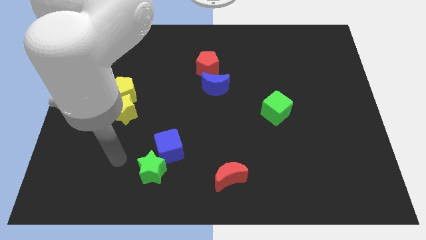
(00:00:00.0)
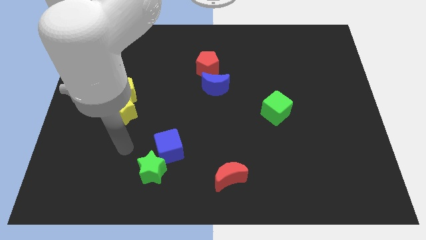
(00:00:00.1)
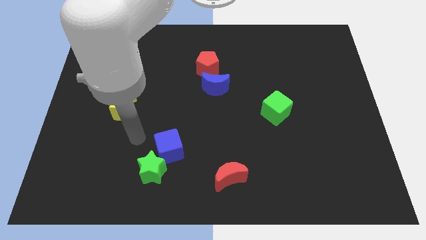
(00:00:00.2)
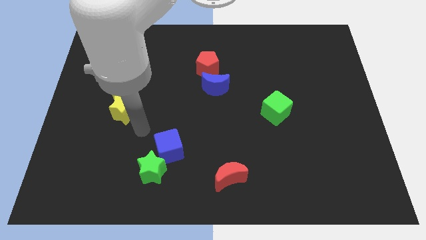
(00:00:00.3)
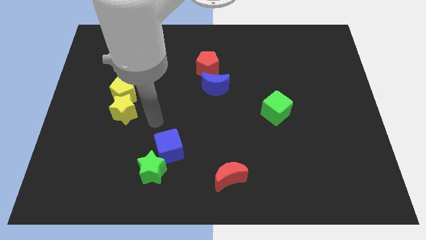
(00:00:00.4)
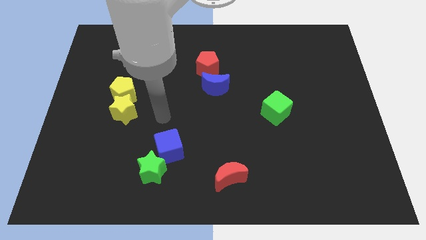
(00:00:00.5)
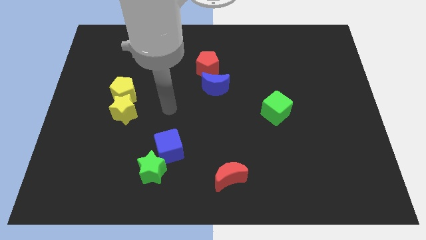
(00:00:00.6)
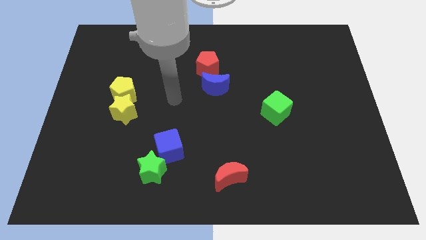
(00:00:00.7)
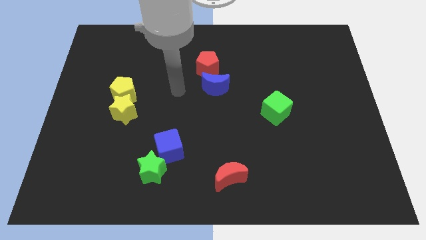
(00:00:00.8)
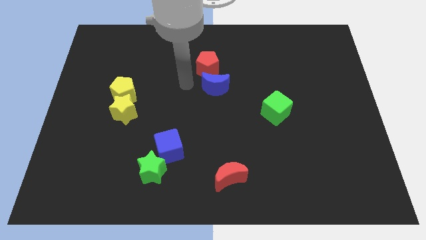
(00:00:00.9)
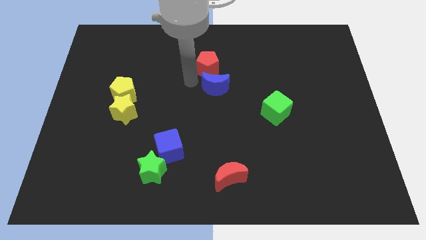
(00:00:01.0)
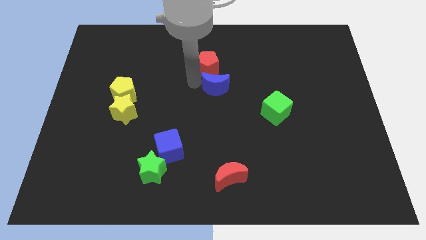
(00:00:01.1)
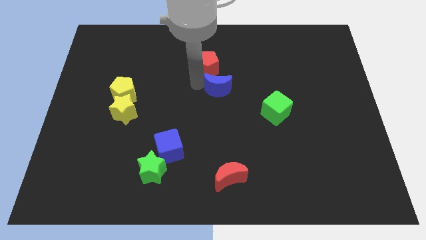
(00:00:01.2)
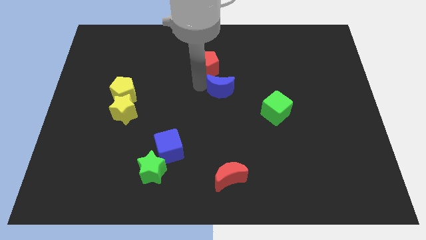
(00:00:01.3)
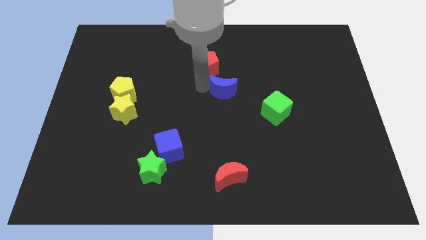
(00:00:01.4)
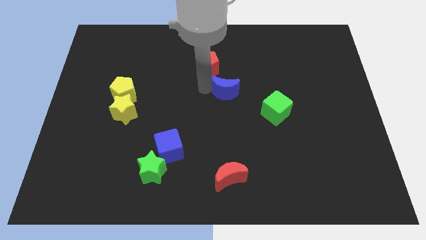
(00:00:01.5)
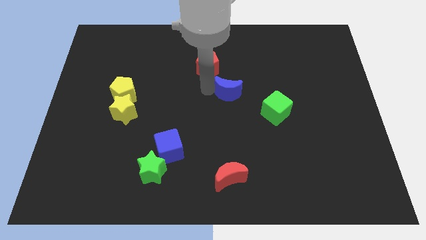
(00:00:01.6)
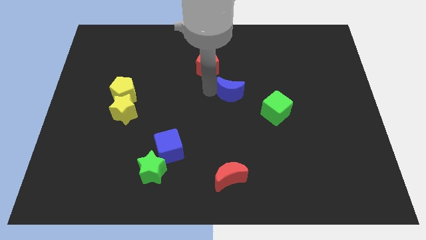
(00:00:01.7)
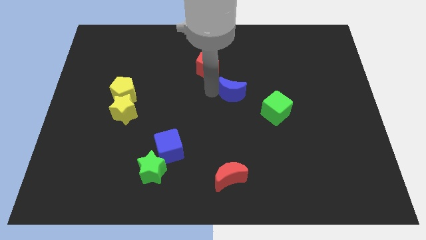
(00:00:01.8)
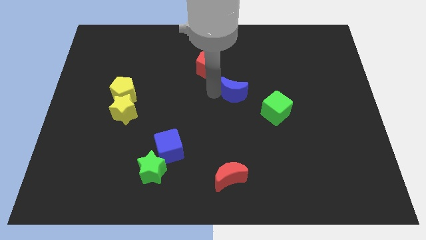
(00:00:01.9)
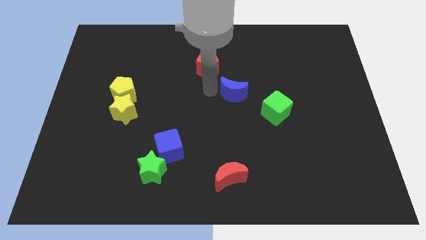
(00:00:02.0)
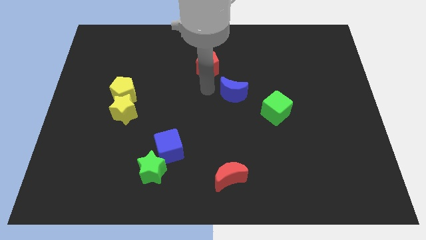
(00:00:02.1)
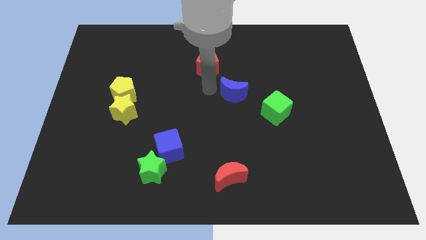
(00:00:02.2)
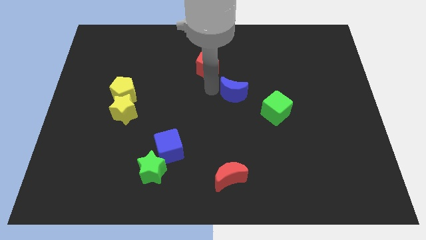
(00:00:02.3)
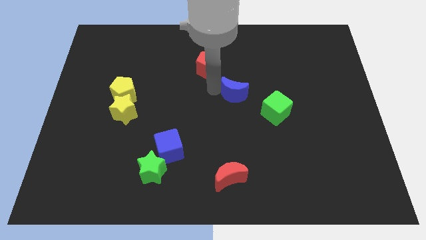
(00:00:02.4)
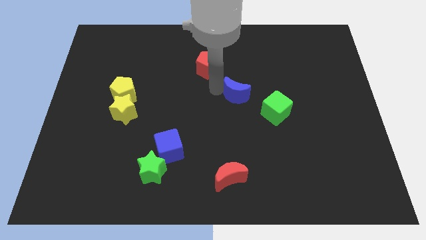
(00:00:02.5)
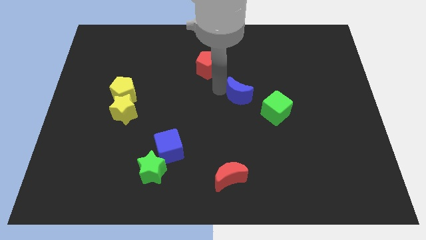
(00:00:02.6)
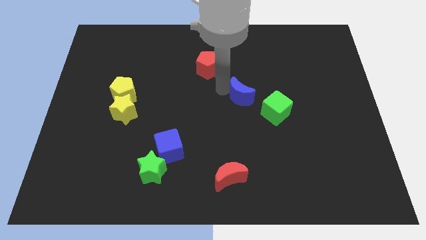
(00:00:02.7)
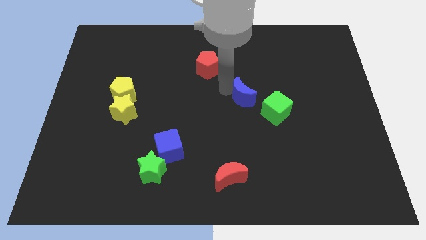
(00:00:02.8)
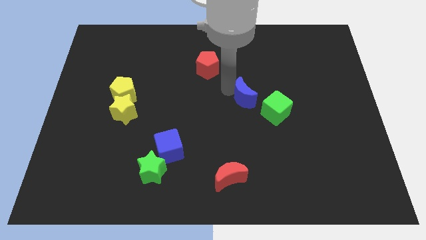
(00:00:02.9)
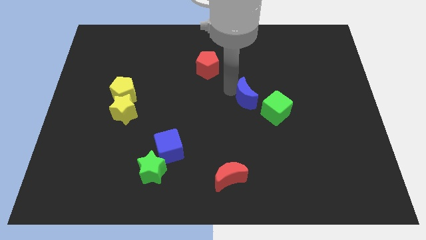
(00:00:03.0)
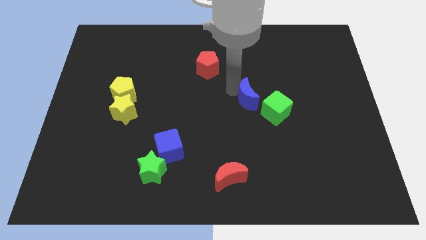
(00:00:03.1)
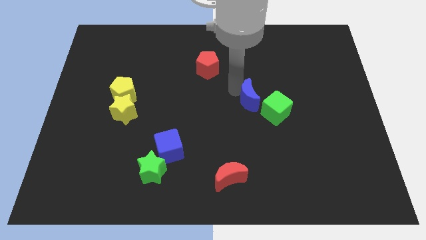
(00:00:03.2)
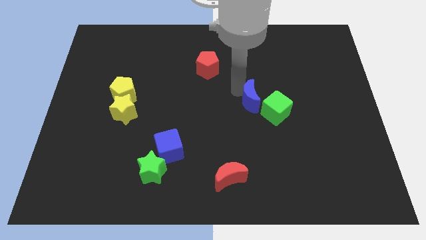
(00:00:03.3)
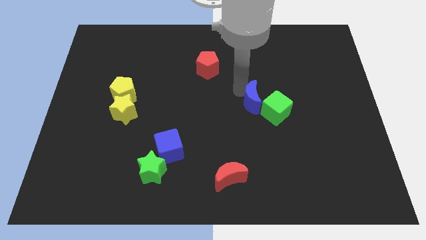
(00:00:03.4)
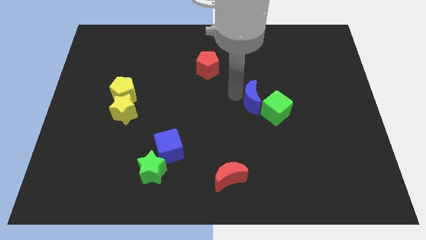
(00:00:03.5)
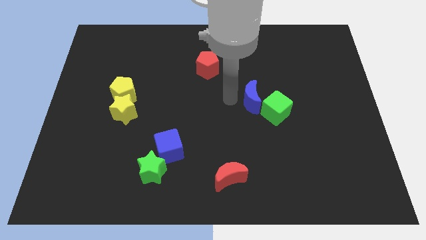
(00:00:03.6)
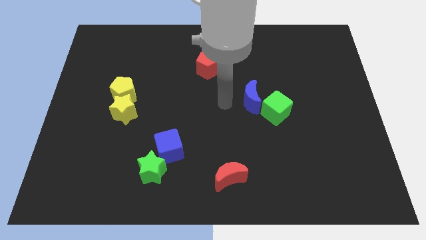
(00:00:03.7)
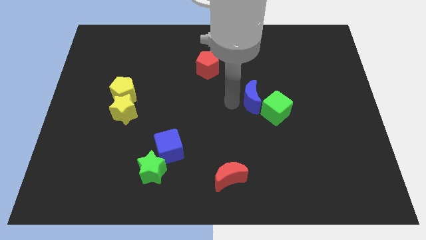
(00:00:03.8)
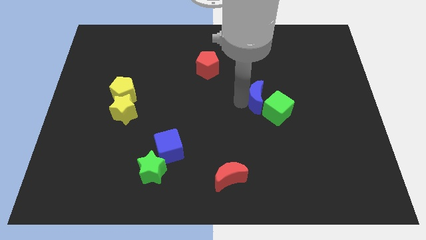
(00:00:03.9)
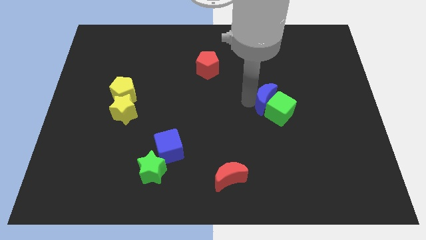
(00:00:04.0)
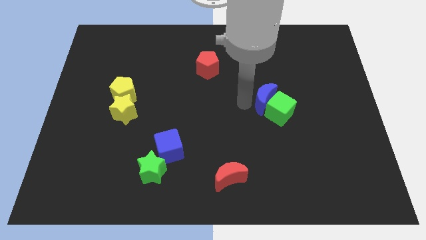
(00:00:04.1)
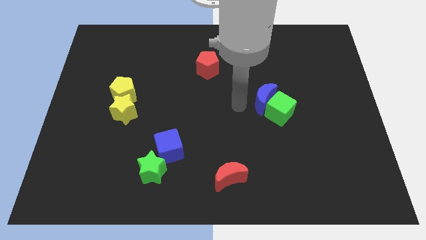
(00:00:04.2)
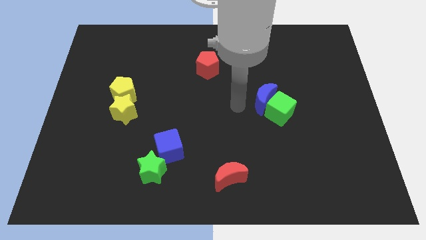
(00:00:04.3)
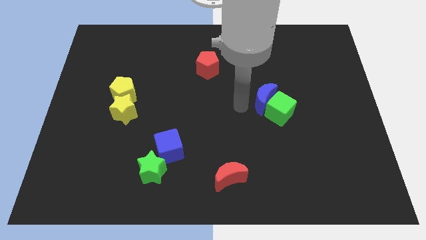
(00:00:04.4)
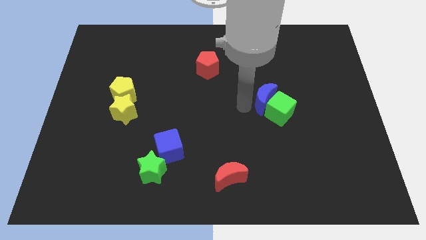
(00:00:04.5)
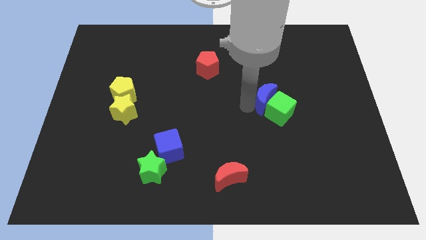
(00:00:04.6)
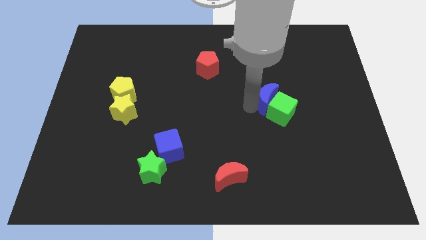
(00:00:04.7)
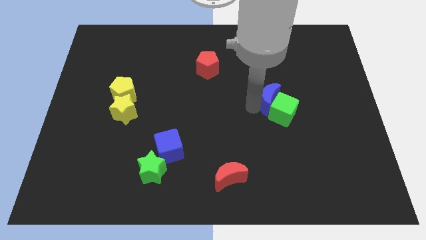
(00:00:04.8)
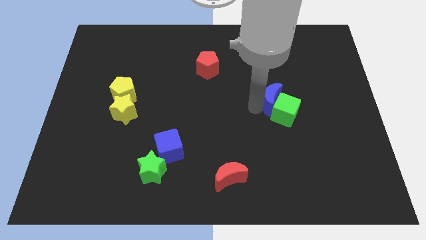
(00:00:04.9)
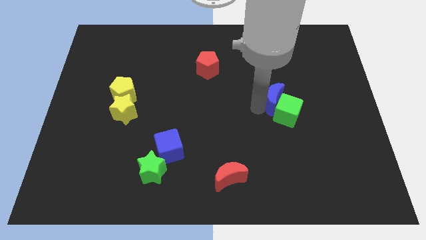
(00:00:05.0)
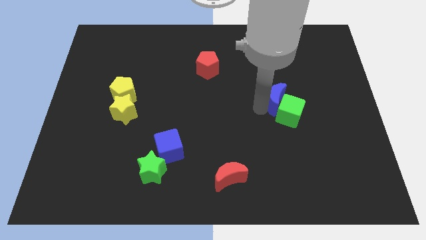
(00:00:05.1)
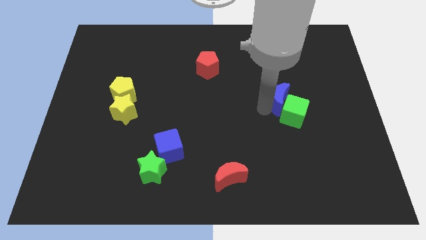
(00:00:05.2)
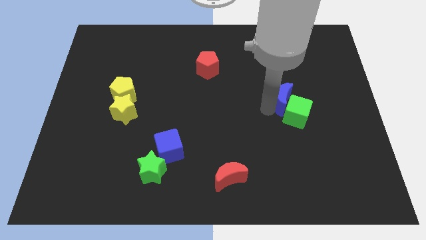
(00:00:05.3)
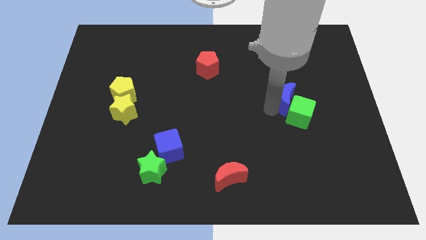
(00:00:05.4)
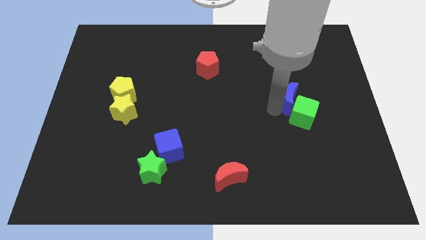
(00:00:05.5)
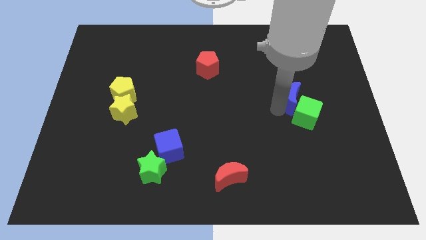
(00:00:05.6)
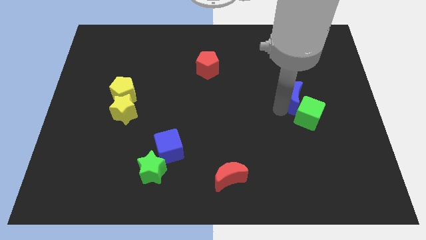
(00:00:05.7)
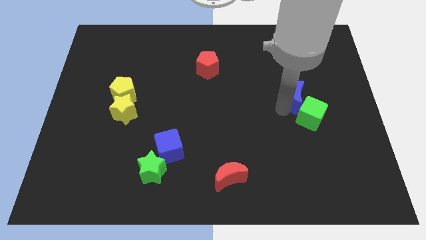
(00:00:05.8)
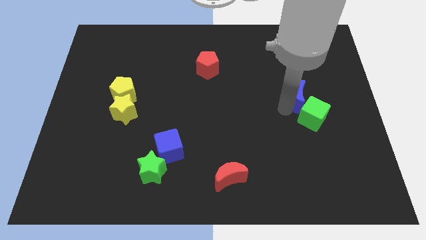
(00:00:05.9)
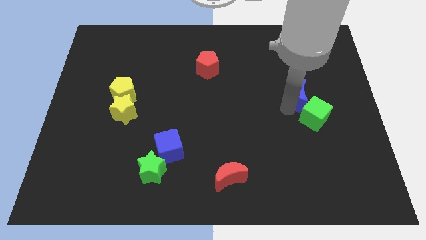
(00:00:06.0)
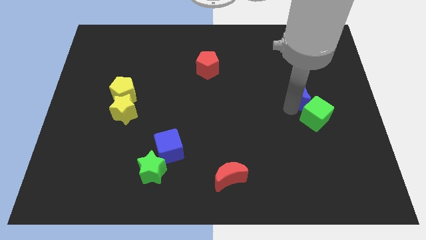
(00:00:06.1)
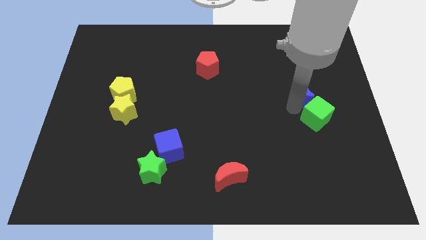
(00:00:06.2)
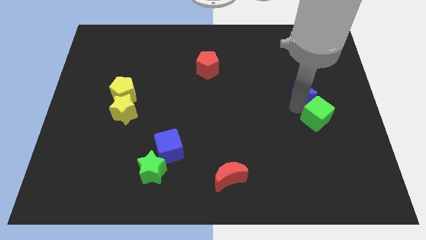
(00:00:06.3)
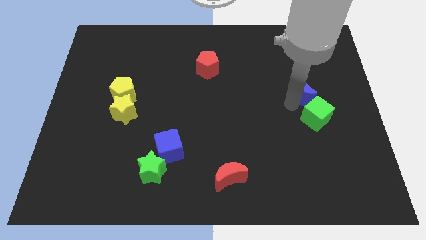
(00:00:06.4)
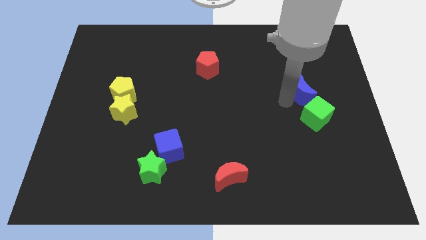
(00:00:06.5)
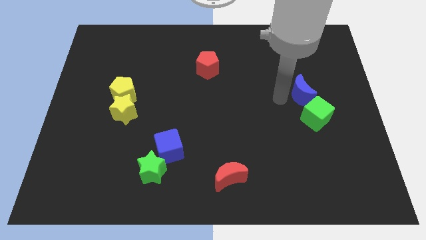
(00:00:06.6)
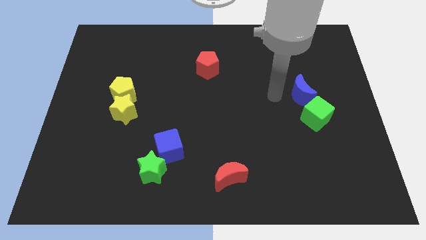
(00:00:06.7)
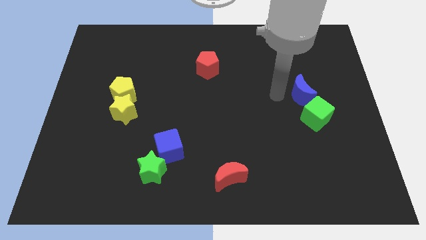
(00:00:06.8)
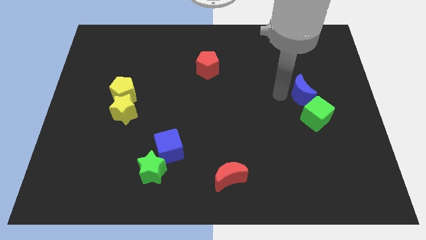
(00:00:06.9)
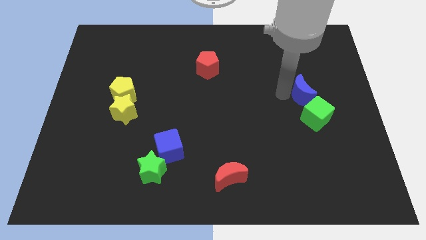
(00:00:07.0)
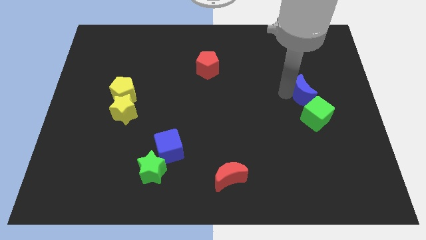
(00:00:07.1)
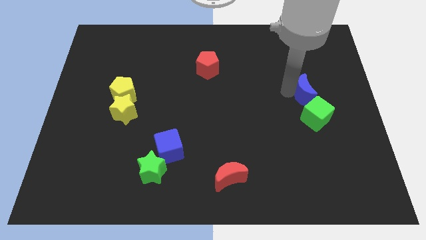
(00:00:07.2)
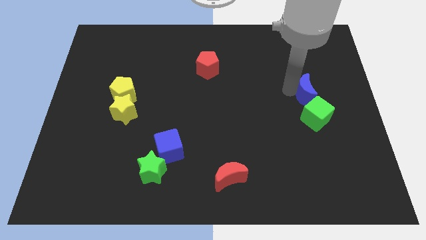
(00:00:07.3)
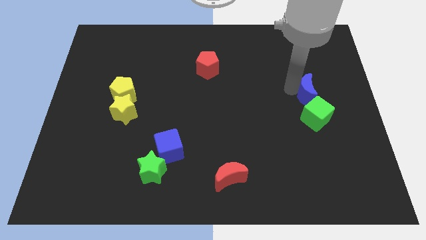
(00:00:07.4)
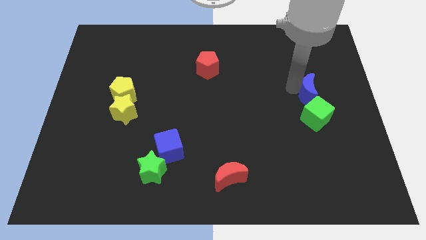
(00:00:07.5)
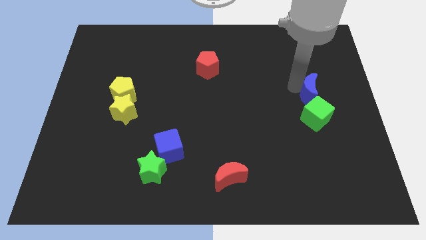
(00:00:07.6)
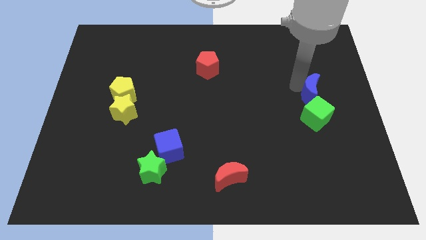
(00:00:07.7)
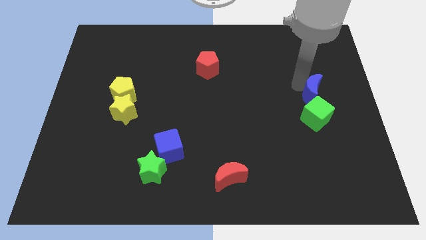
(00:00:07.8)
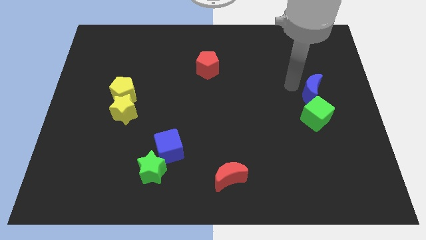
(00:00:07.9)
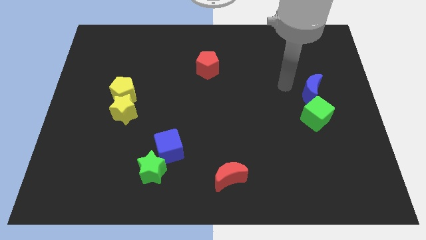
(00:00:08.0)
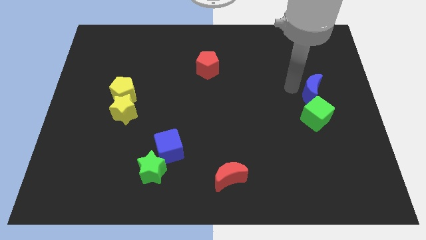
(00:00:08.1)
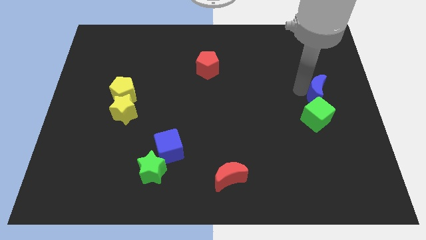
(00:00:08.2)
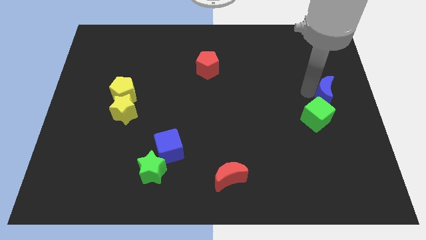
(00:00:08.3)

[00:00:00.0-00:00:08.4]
move the blue moon to the right side of the board
